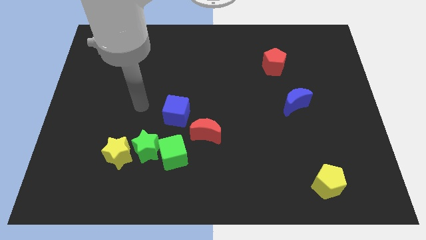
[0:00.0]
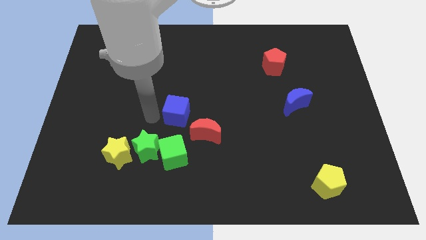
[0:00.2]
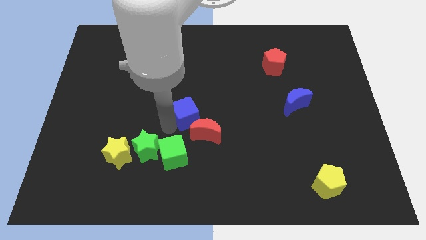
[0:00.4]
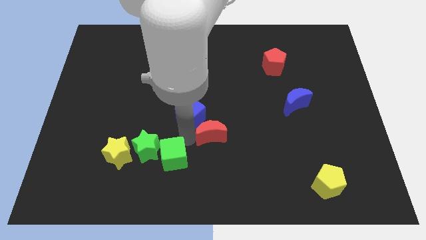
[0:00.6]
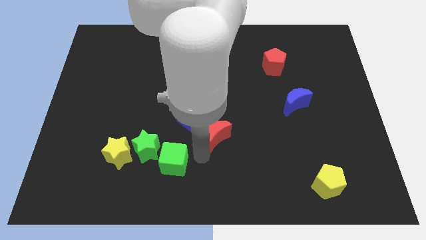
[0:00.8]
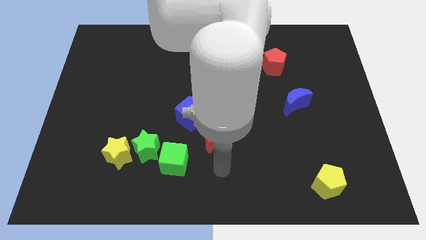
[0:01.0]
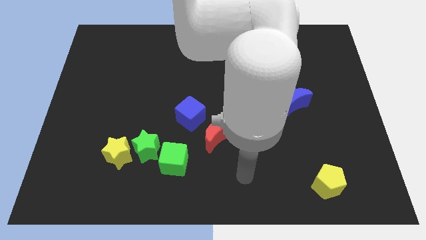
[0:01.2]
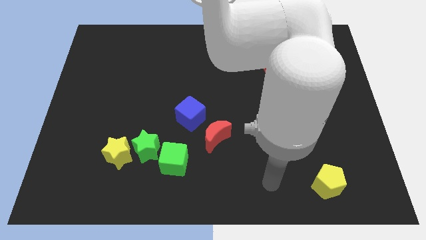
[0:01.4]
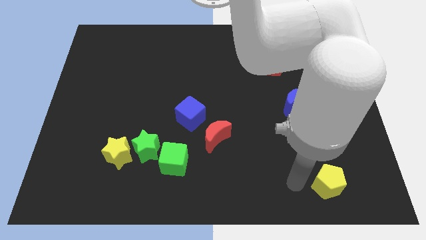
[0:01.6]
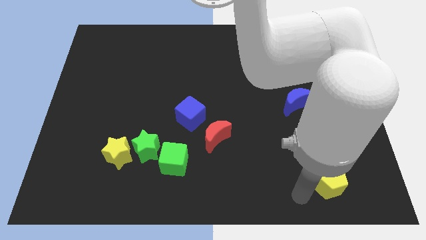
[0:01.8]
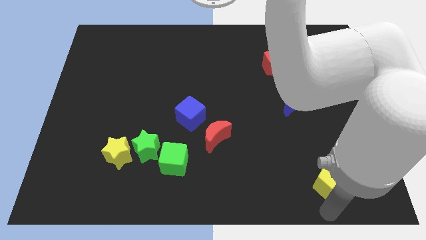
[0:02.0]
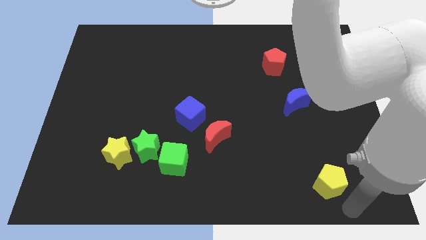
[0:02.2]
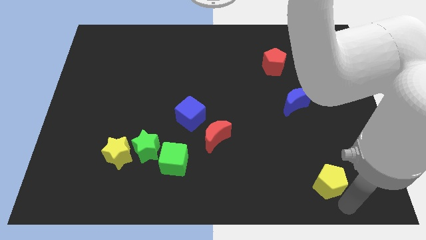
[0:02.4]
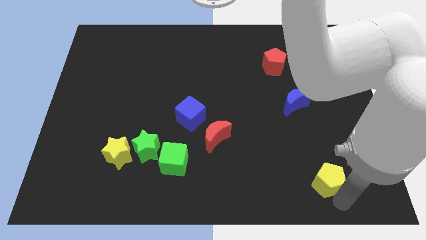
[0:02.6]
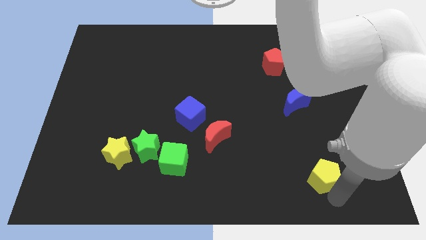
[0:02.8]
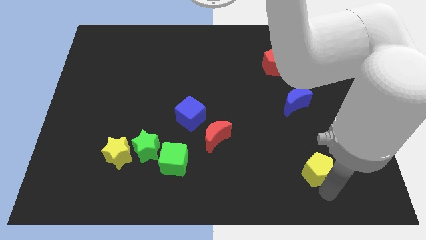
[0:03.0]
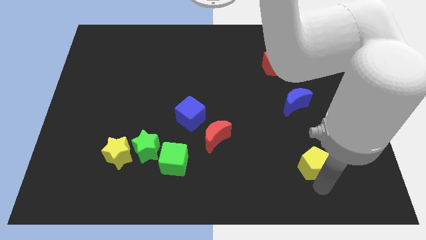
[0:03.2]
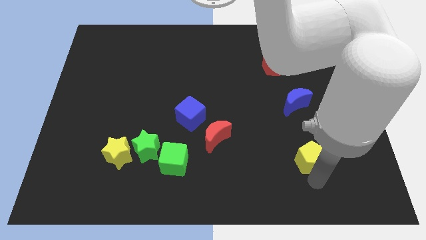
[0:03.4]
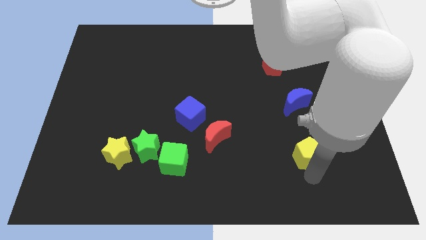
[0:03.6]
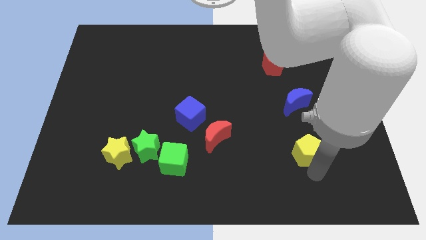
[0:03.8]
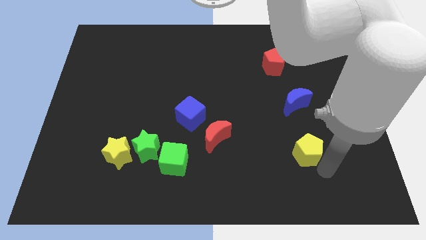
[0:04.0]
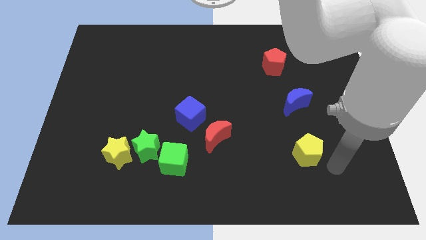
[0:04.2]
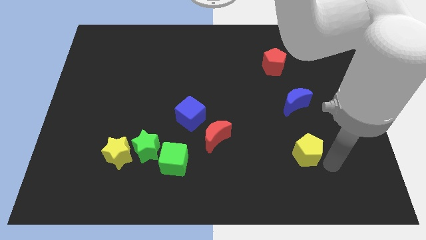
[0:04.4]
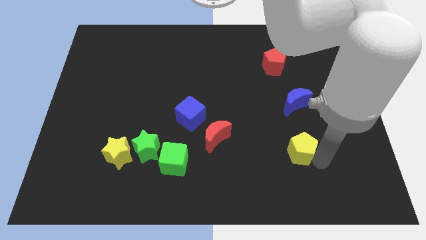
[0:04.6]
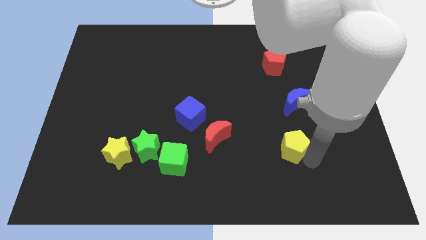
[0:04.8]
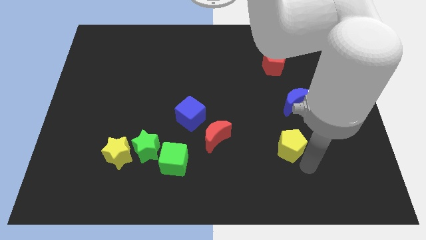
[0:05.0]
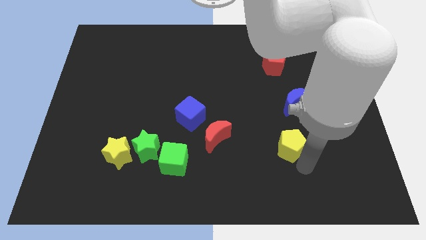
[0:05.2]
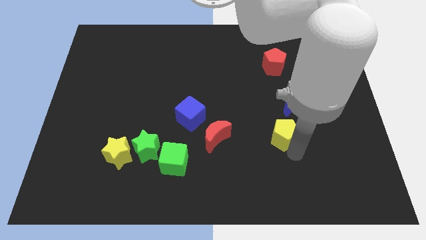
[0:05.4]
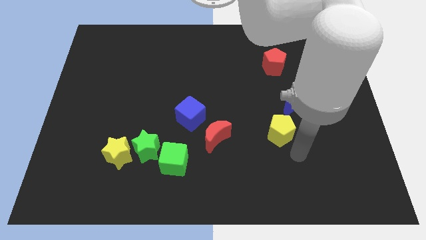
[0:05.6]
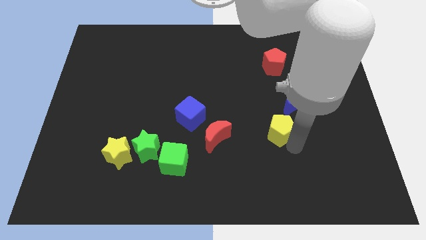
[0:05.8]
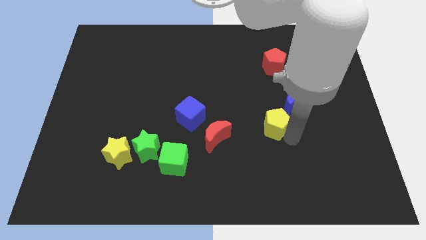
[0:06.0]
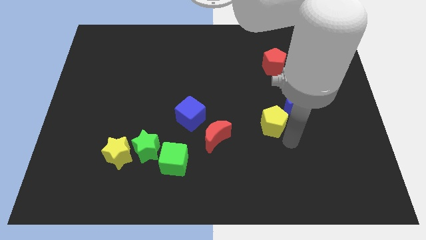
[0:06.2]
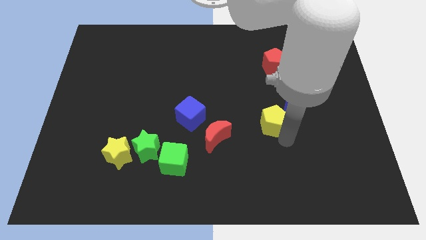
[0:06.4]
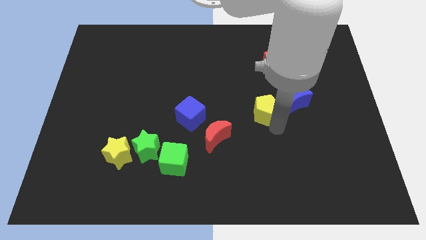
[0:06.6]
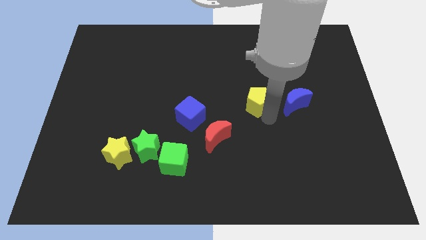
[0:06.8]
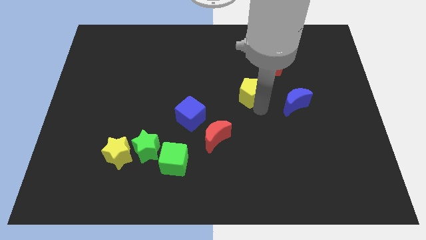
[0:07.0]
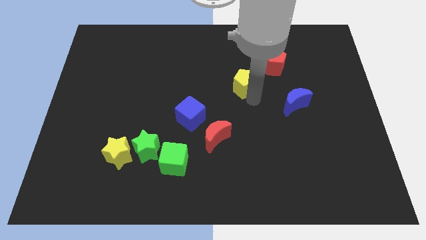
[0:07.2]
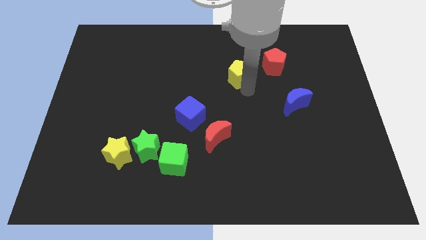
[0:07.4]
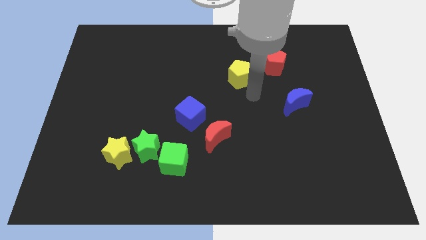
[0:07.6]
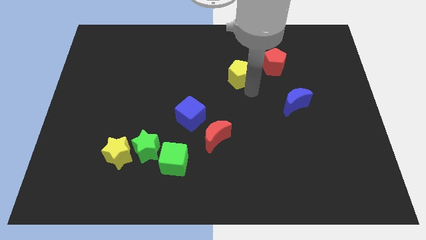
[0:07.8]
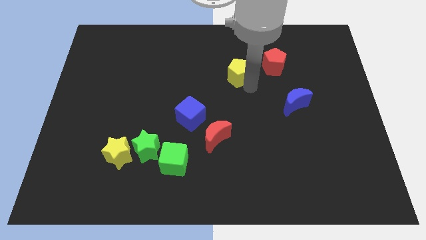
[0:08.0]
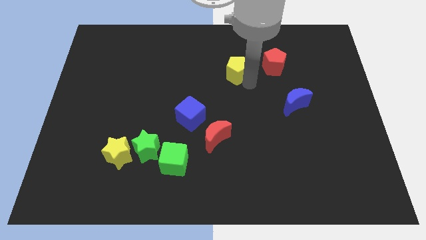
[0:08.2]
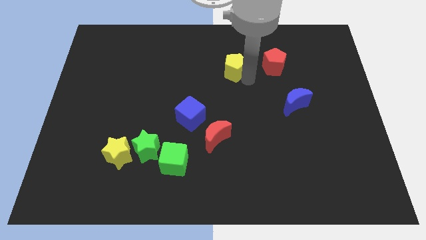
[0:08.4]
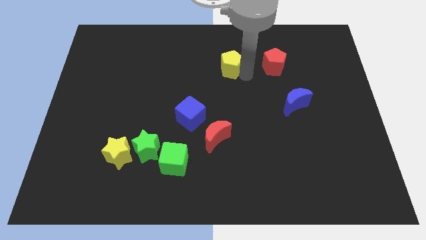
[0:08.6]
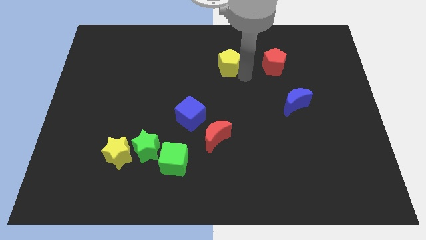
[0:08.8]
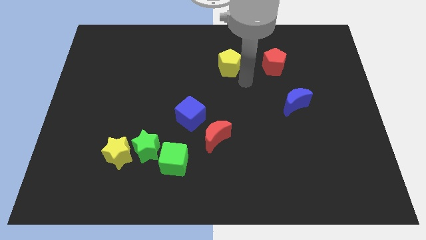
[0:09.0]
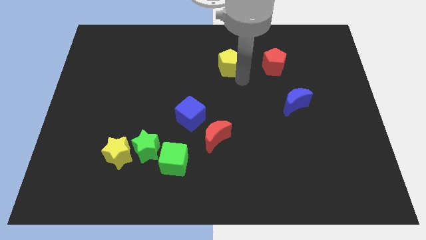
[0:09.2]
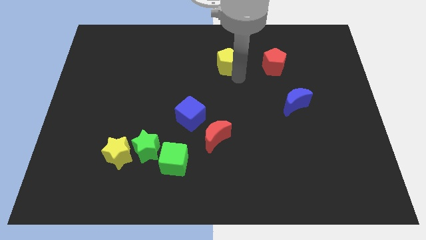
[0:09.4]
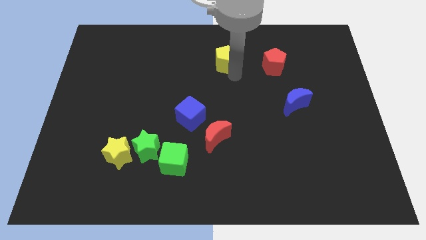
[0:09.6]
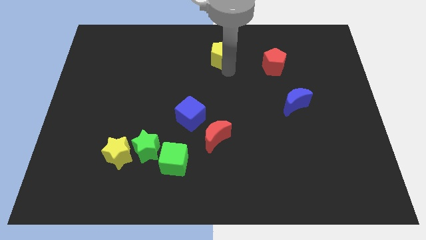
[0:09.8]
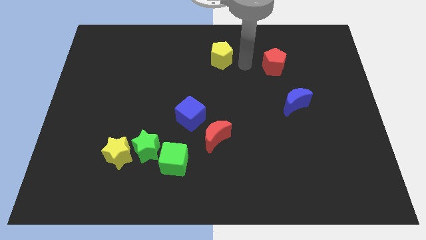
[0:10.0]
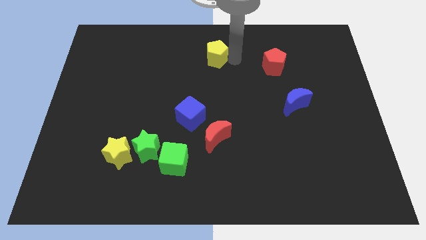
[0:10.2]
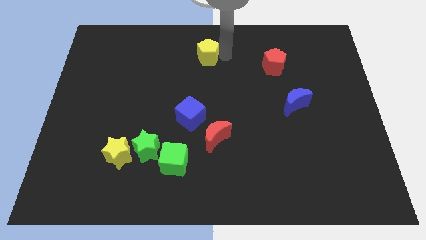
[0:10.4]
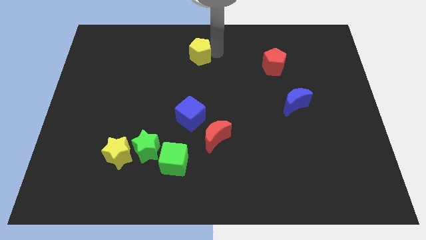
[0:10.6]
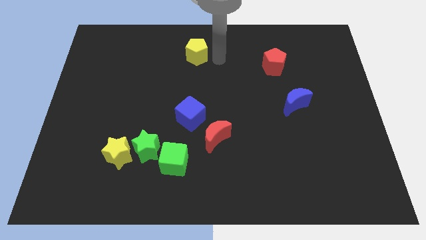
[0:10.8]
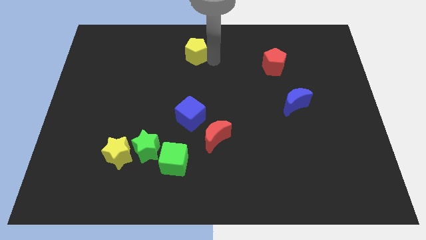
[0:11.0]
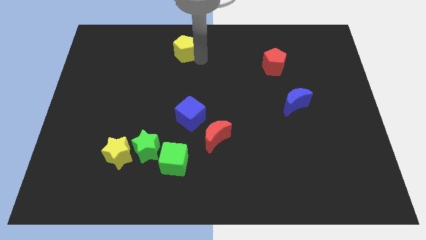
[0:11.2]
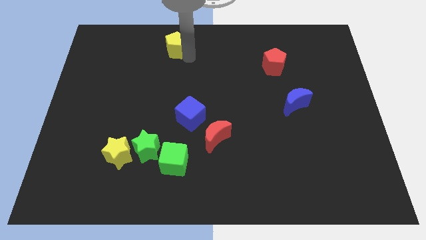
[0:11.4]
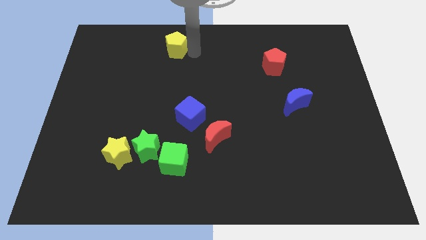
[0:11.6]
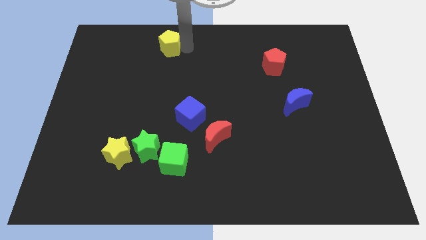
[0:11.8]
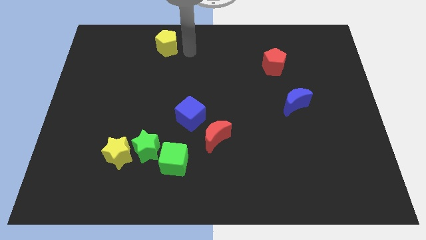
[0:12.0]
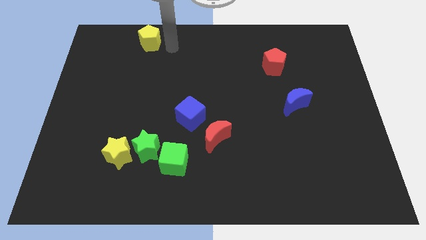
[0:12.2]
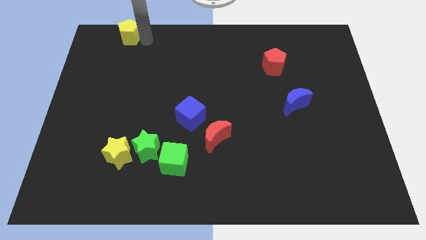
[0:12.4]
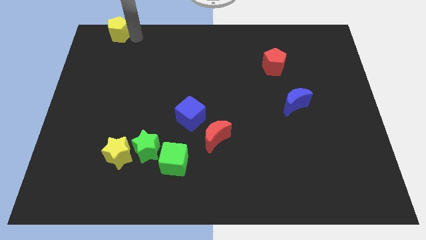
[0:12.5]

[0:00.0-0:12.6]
slide the yellow pentagon to the upper left corner

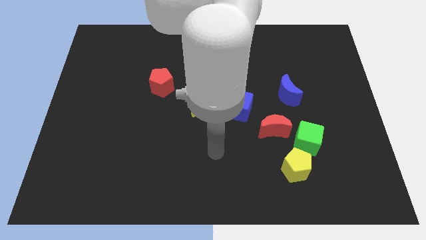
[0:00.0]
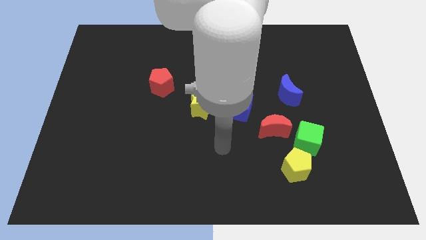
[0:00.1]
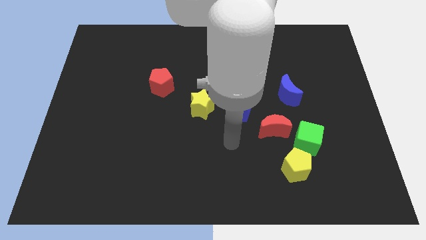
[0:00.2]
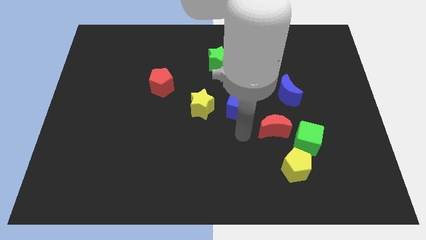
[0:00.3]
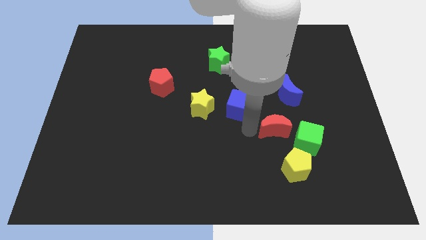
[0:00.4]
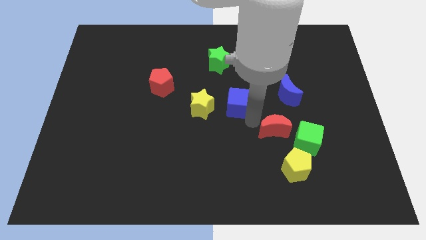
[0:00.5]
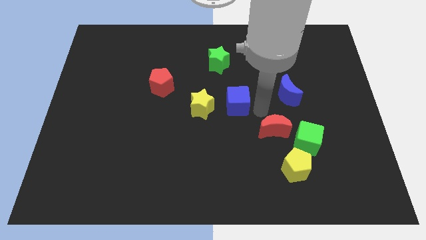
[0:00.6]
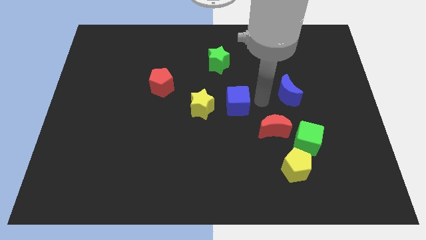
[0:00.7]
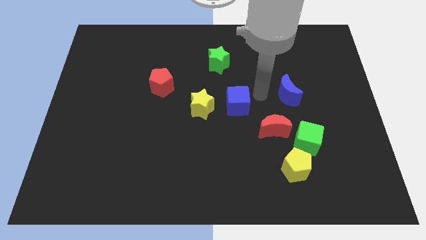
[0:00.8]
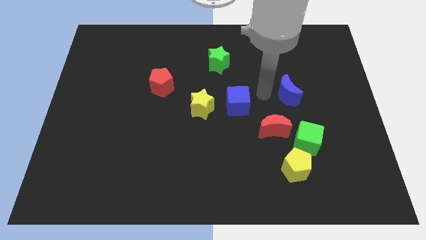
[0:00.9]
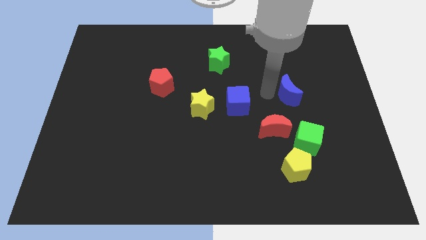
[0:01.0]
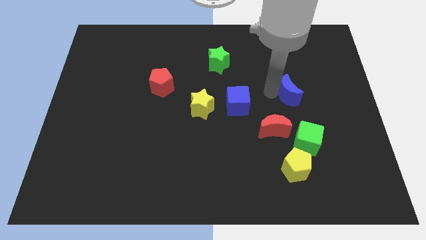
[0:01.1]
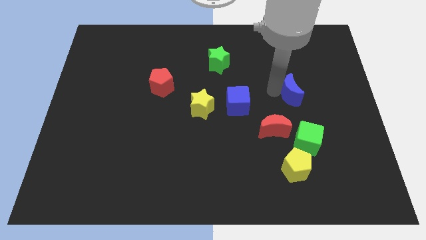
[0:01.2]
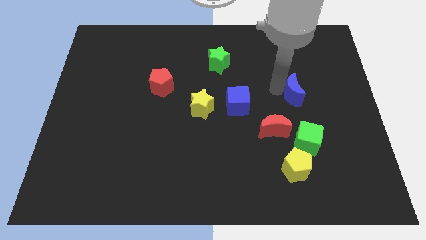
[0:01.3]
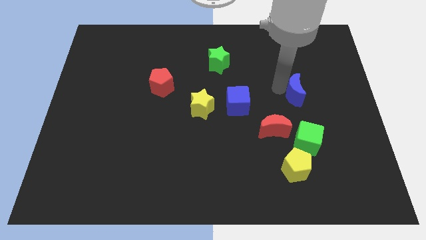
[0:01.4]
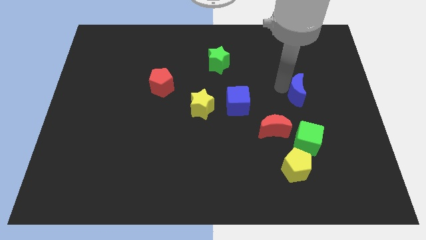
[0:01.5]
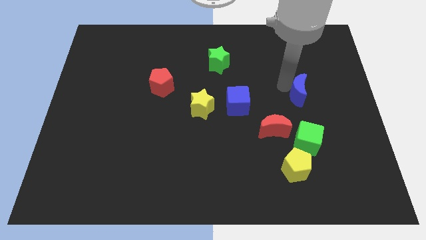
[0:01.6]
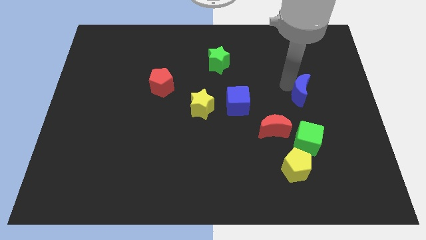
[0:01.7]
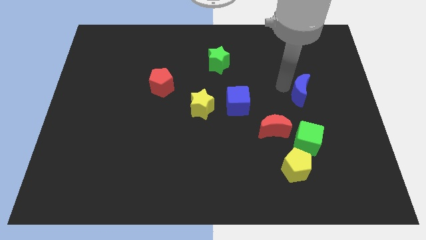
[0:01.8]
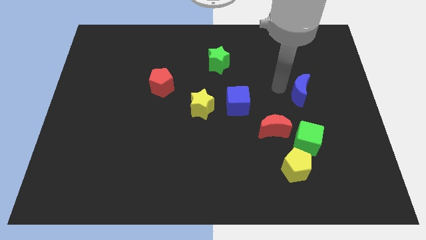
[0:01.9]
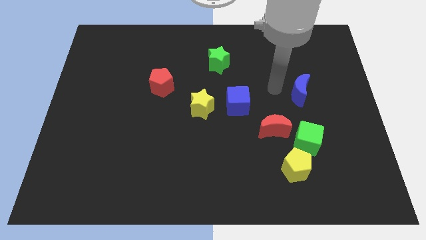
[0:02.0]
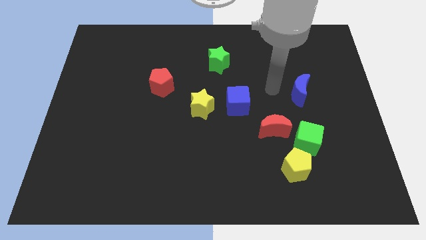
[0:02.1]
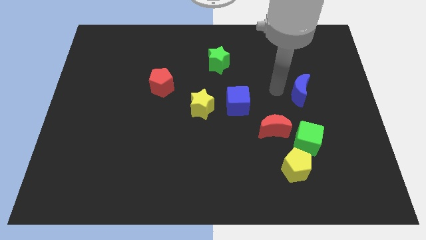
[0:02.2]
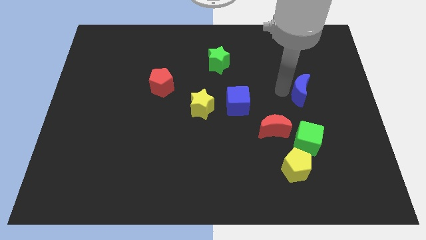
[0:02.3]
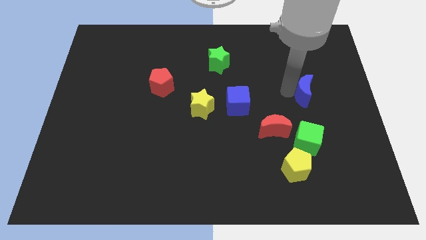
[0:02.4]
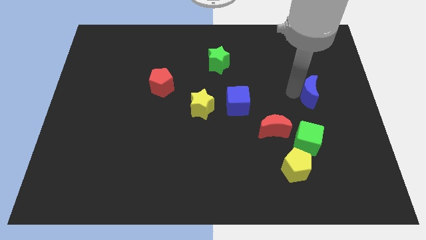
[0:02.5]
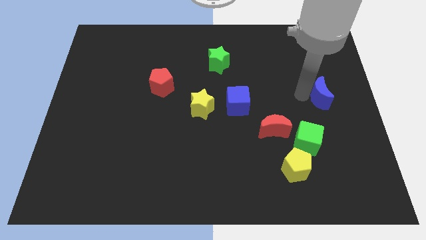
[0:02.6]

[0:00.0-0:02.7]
push the blue moon to the right side
